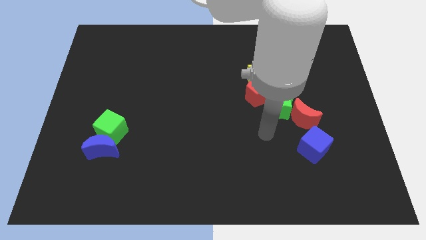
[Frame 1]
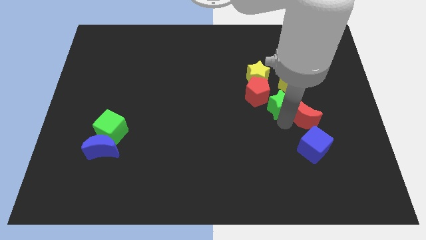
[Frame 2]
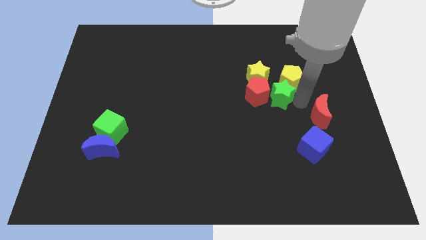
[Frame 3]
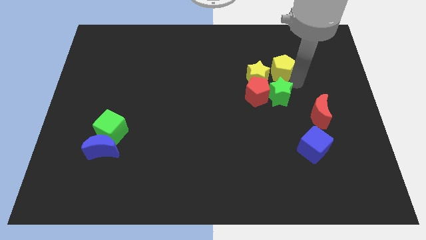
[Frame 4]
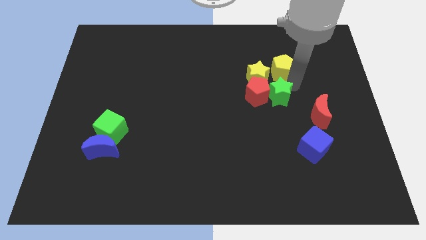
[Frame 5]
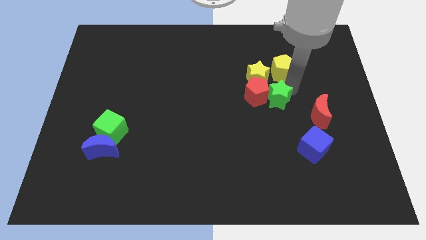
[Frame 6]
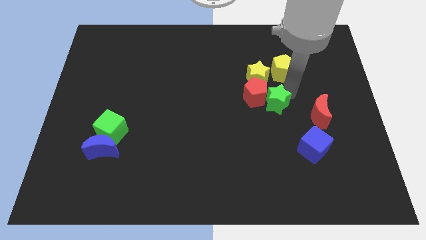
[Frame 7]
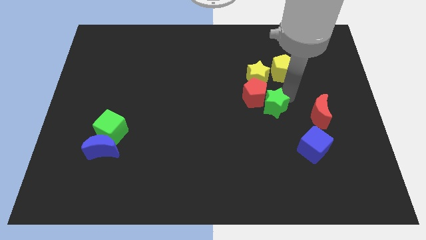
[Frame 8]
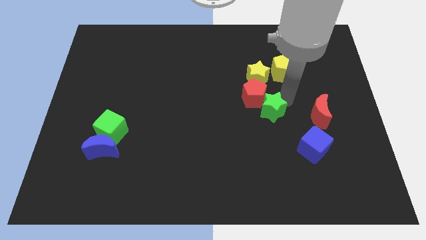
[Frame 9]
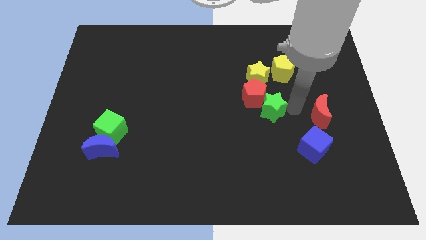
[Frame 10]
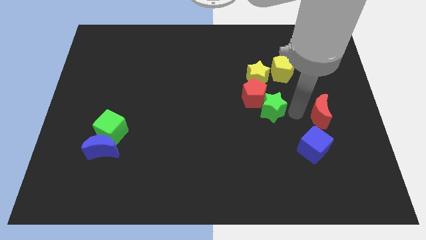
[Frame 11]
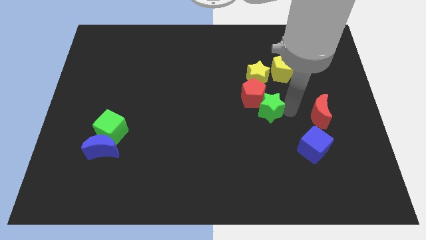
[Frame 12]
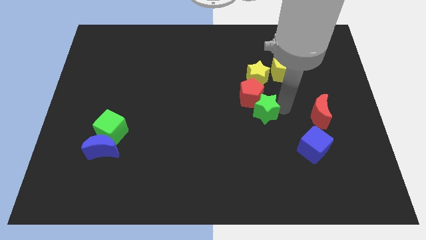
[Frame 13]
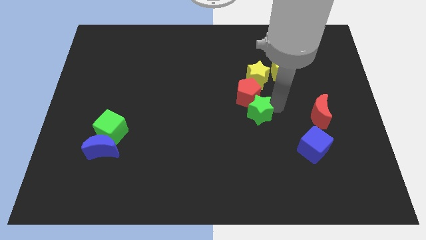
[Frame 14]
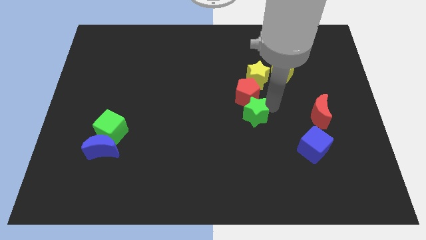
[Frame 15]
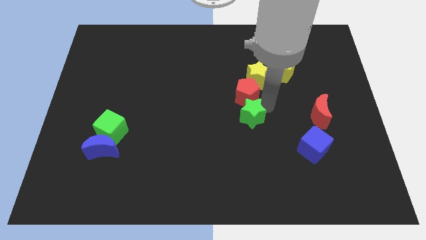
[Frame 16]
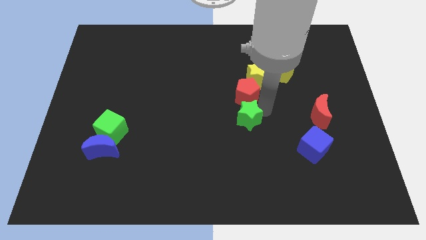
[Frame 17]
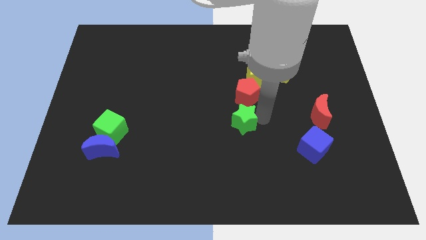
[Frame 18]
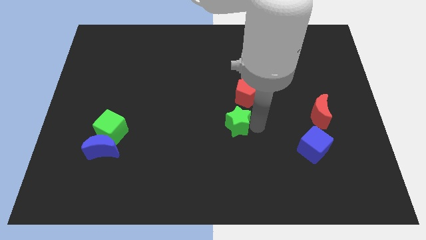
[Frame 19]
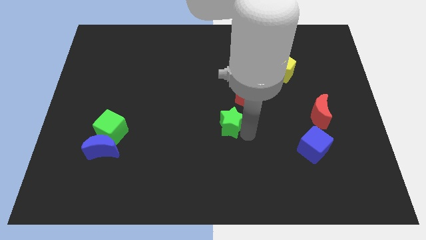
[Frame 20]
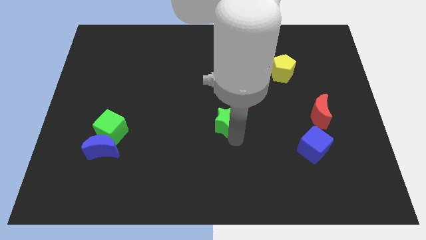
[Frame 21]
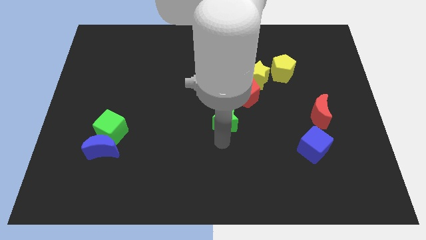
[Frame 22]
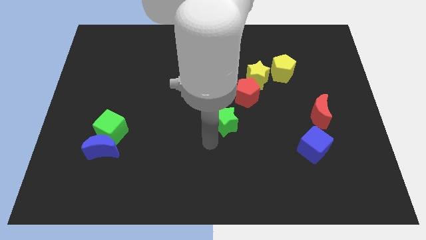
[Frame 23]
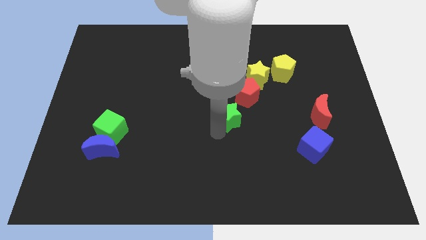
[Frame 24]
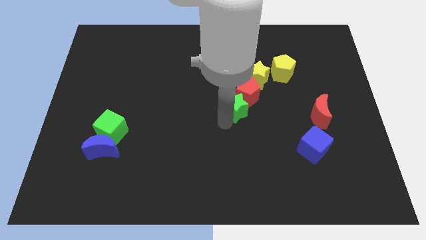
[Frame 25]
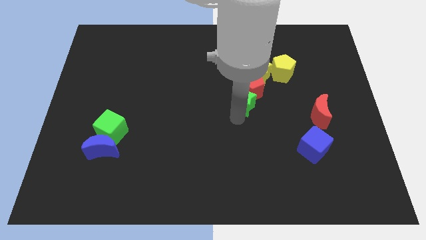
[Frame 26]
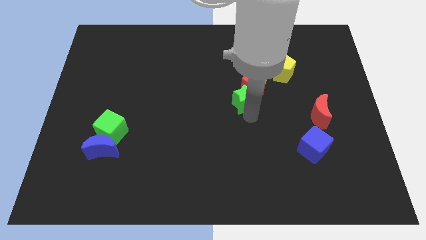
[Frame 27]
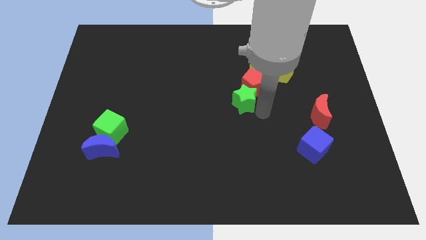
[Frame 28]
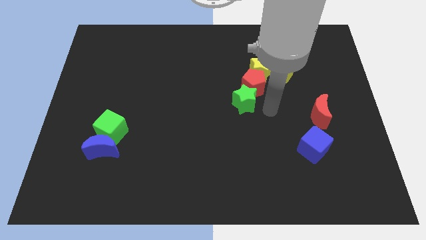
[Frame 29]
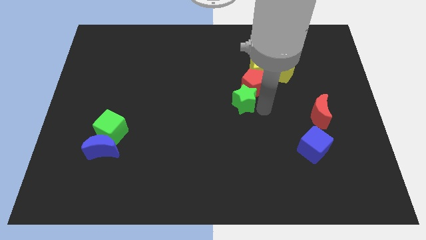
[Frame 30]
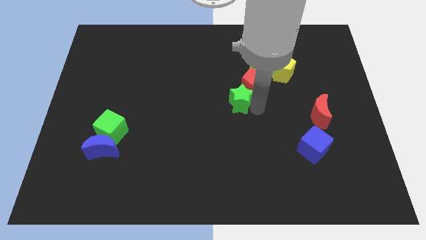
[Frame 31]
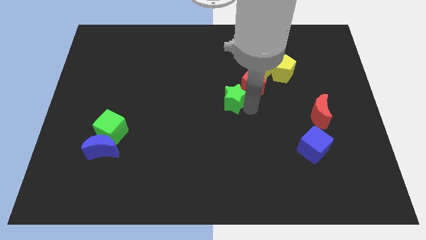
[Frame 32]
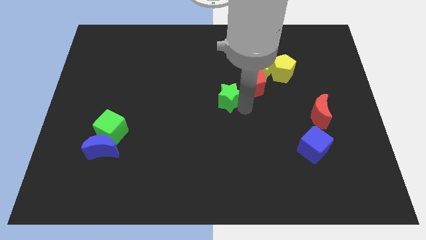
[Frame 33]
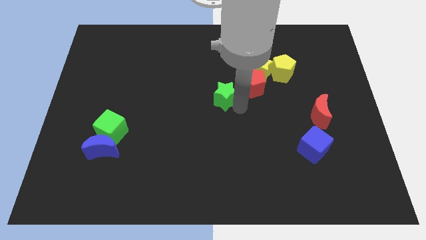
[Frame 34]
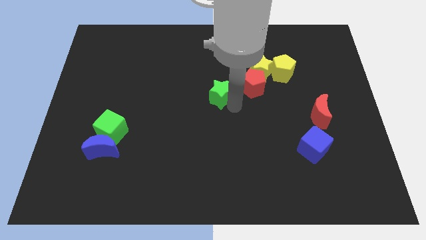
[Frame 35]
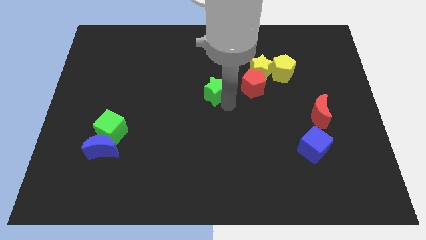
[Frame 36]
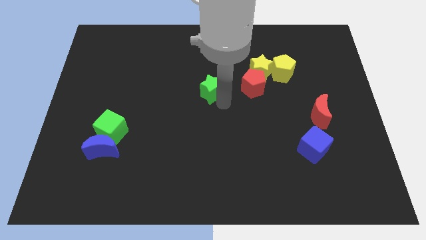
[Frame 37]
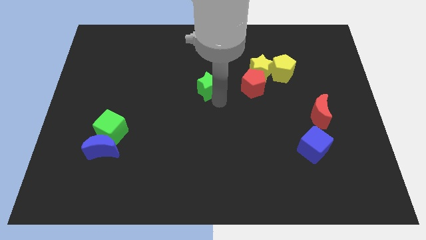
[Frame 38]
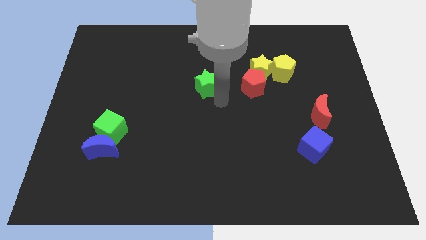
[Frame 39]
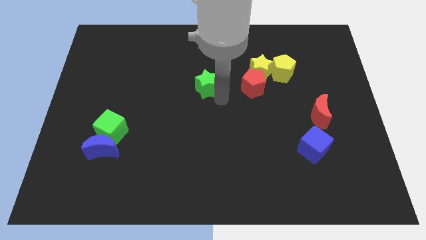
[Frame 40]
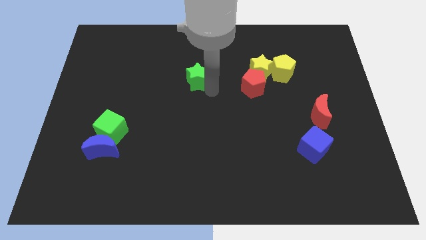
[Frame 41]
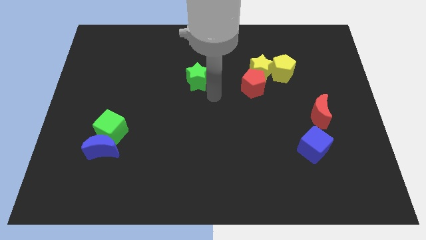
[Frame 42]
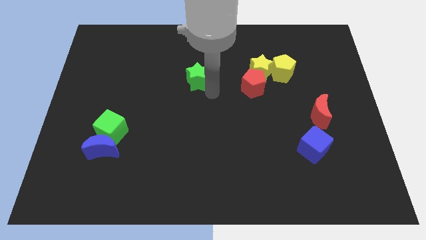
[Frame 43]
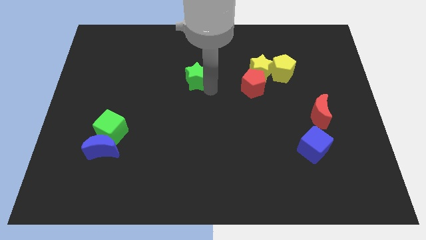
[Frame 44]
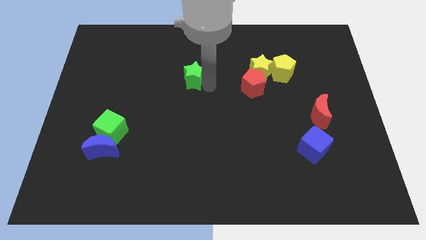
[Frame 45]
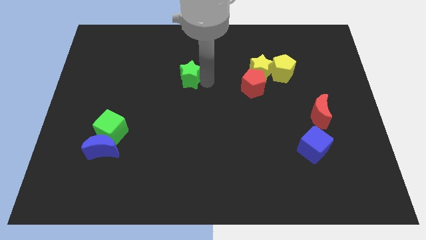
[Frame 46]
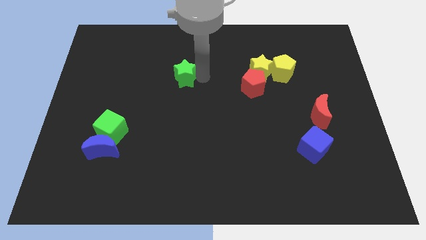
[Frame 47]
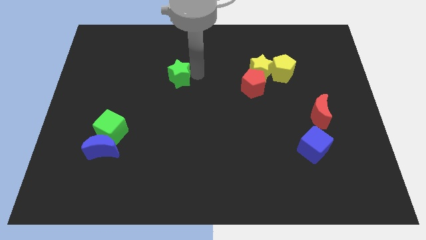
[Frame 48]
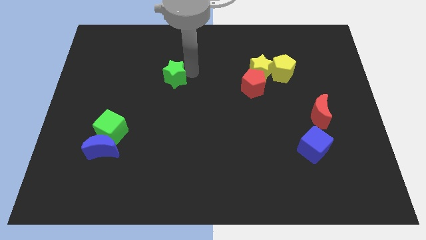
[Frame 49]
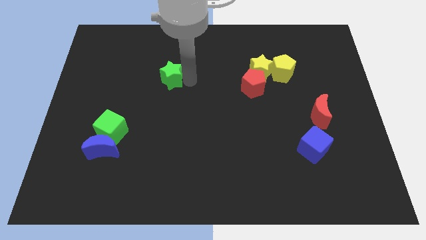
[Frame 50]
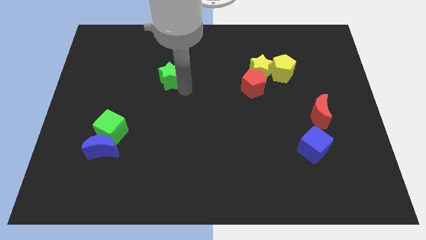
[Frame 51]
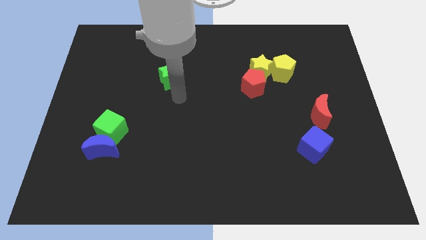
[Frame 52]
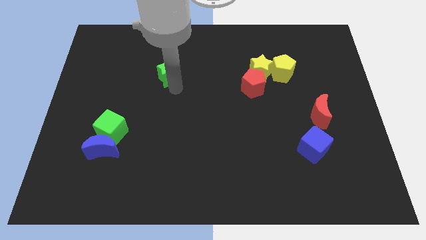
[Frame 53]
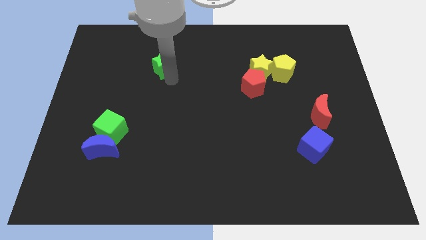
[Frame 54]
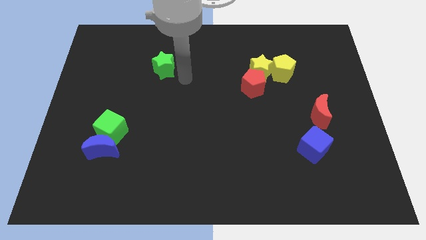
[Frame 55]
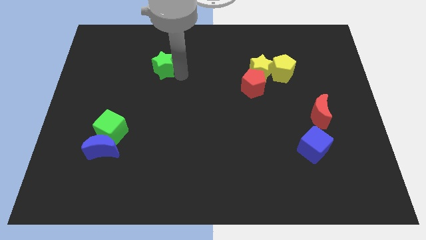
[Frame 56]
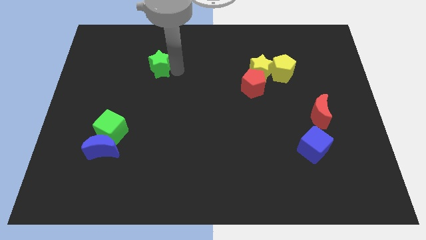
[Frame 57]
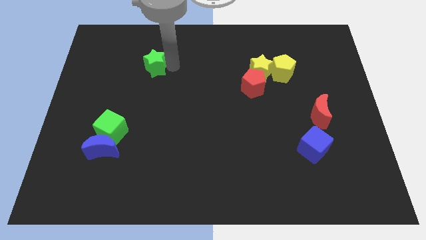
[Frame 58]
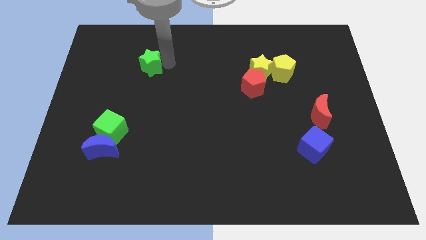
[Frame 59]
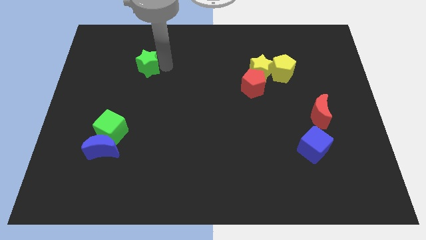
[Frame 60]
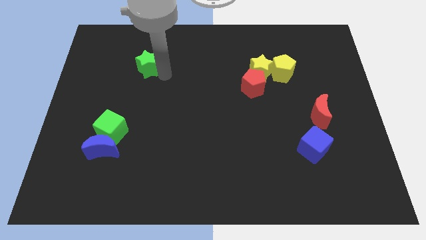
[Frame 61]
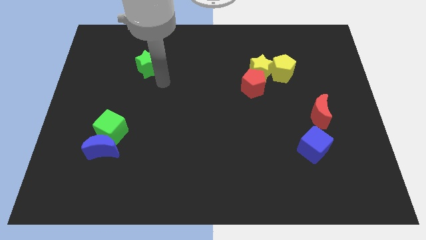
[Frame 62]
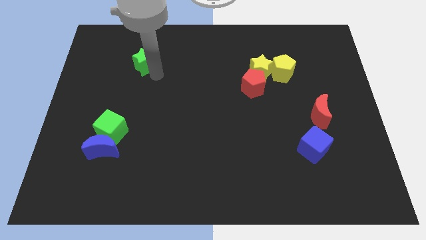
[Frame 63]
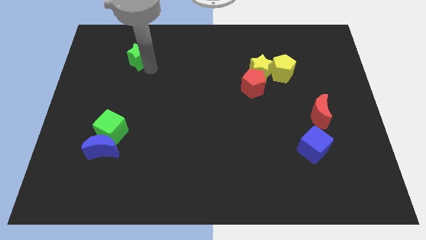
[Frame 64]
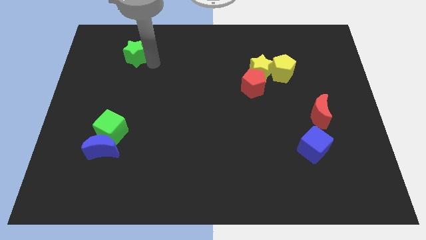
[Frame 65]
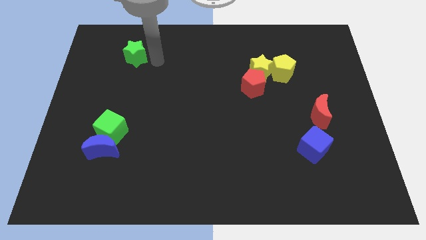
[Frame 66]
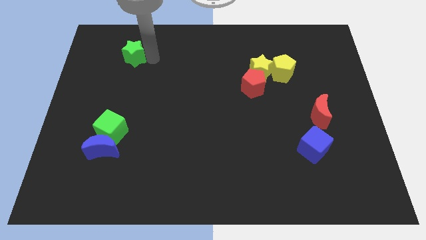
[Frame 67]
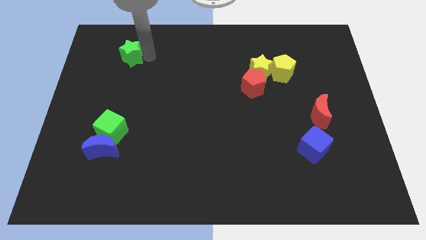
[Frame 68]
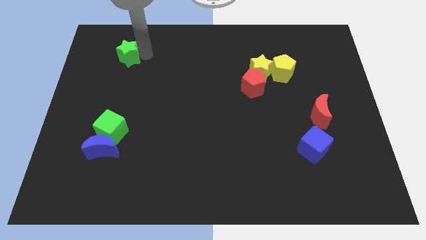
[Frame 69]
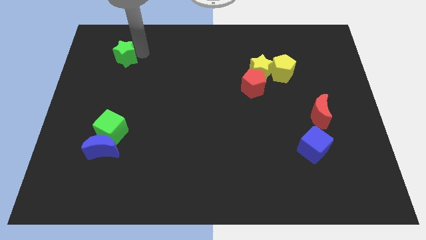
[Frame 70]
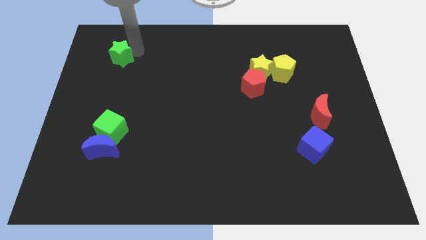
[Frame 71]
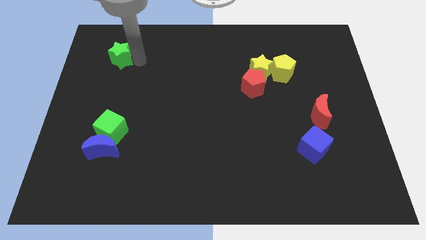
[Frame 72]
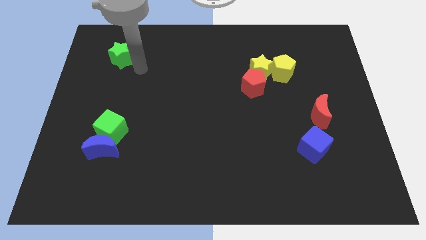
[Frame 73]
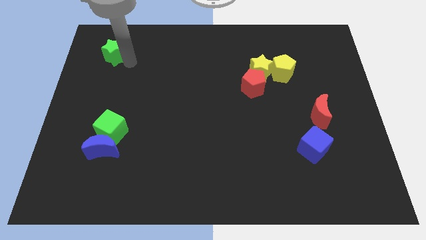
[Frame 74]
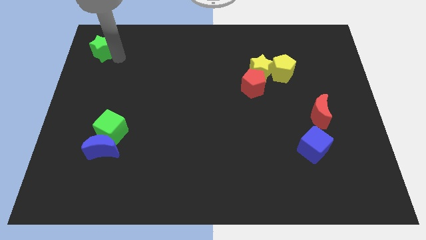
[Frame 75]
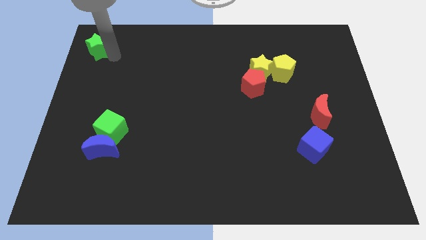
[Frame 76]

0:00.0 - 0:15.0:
push the green star to the top left corner
